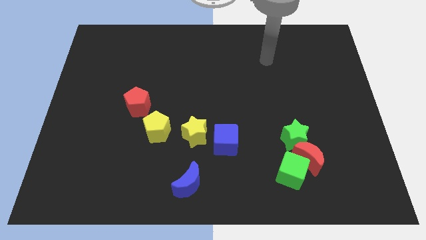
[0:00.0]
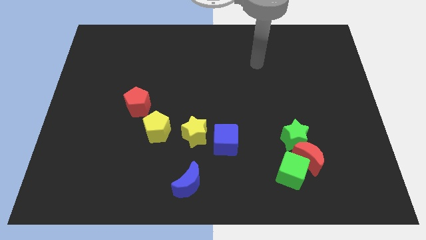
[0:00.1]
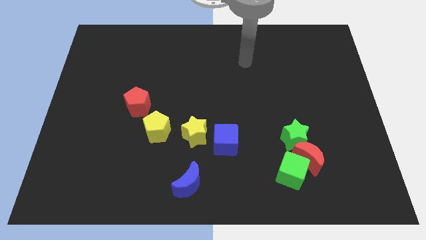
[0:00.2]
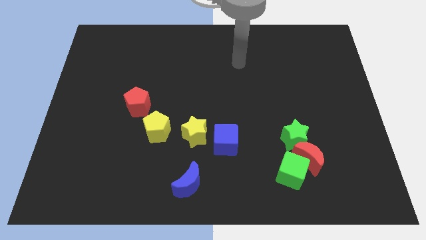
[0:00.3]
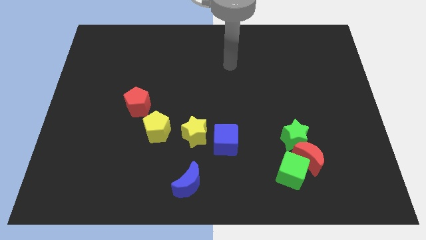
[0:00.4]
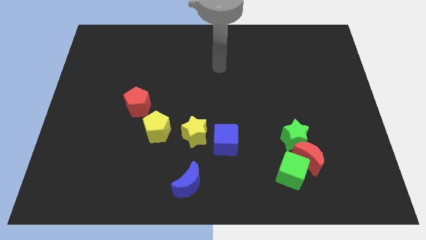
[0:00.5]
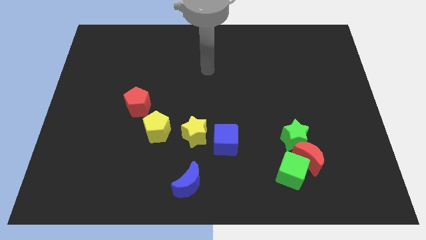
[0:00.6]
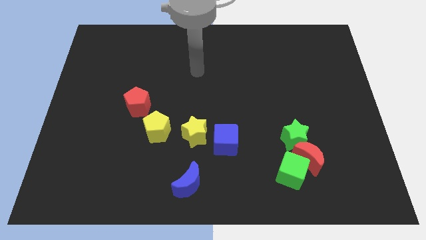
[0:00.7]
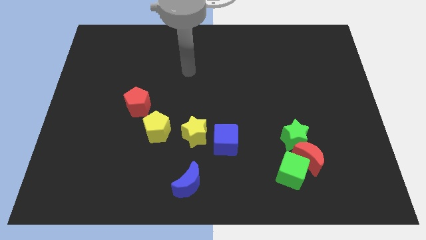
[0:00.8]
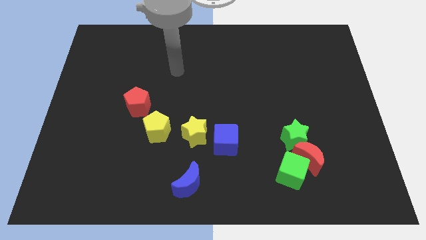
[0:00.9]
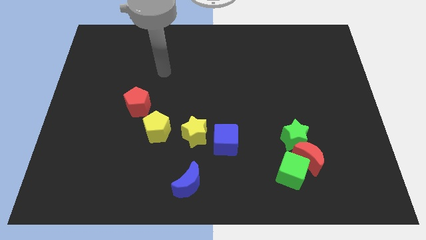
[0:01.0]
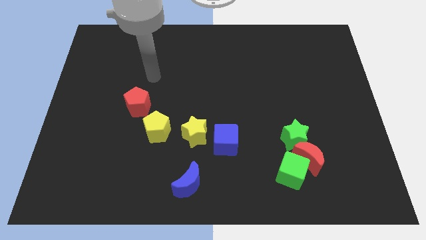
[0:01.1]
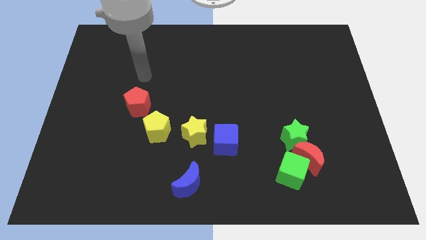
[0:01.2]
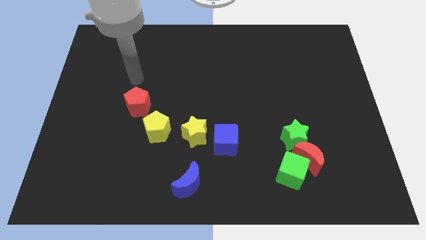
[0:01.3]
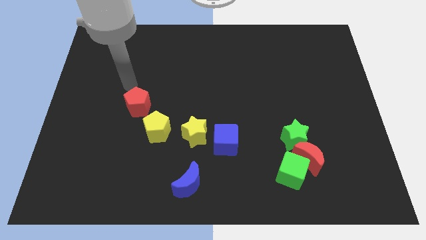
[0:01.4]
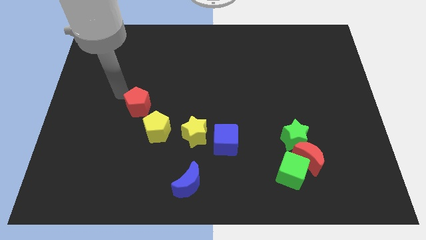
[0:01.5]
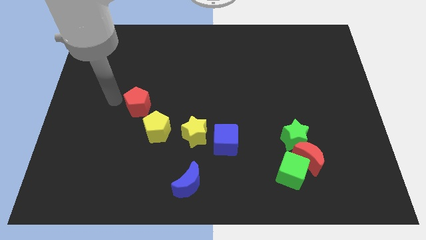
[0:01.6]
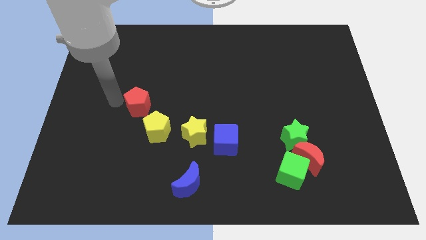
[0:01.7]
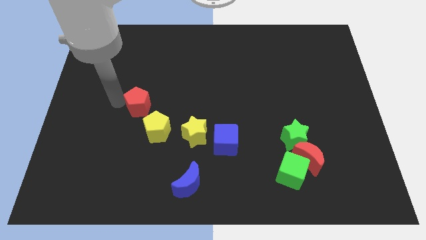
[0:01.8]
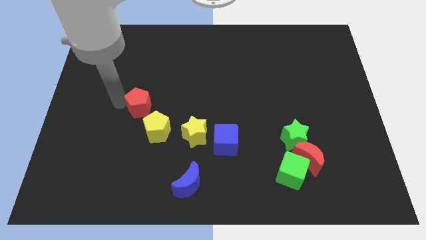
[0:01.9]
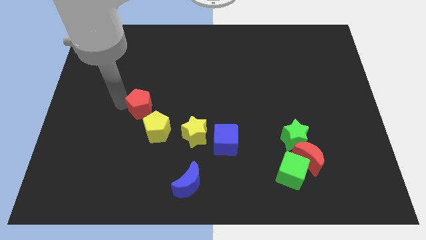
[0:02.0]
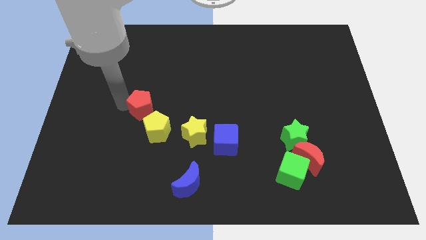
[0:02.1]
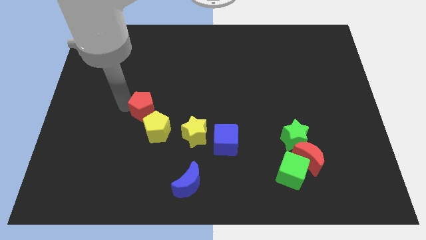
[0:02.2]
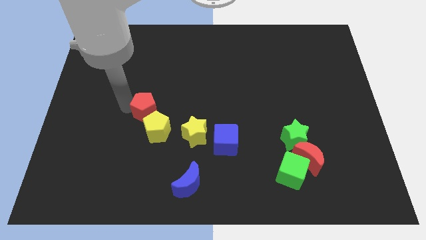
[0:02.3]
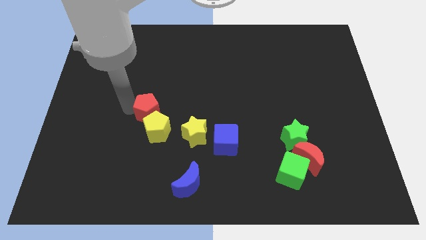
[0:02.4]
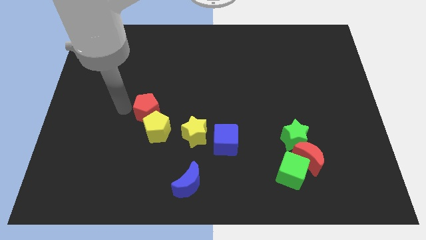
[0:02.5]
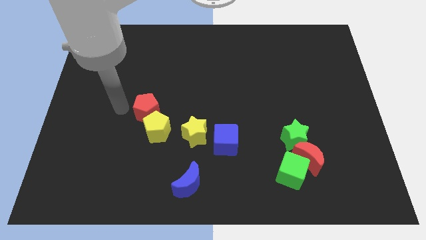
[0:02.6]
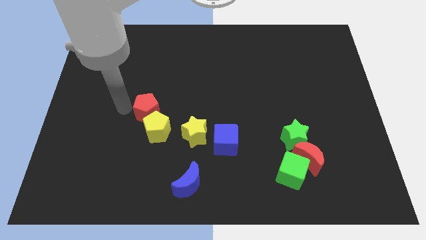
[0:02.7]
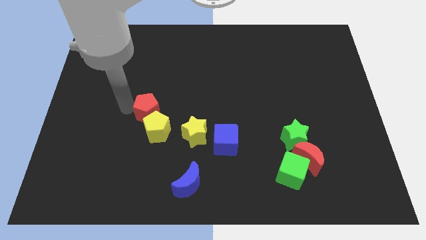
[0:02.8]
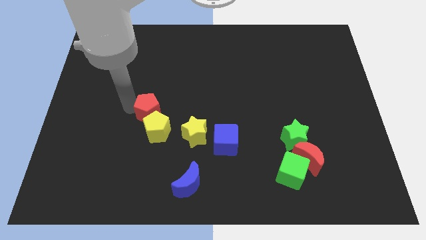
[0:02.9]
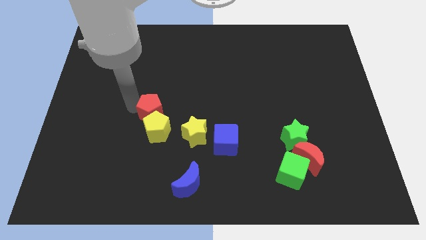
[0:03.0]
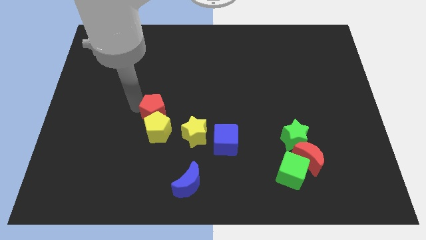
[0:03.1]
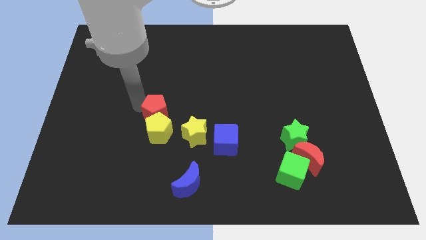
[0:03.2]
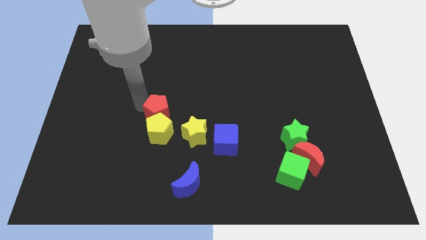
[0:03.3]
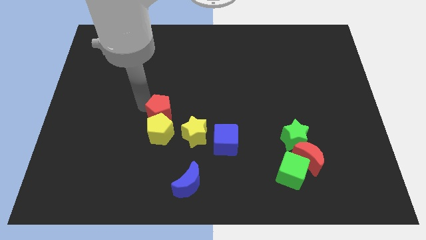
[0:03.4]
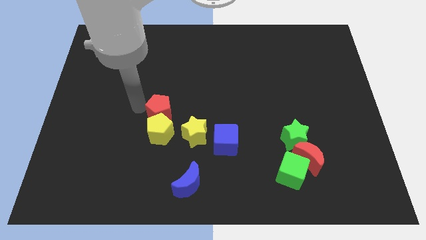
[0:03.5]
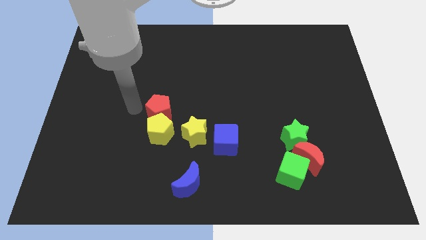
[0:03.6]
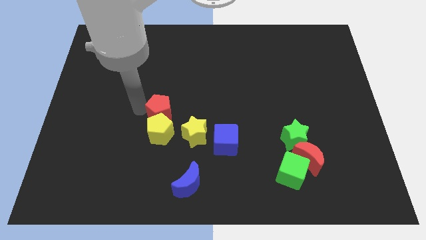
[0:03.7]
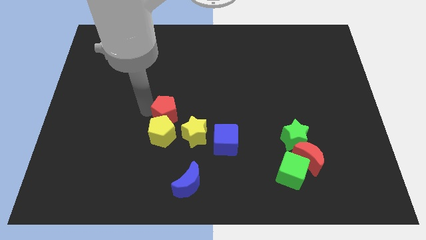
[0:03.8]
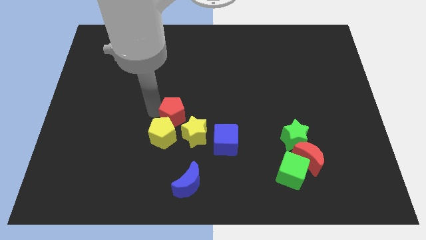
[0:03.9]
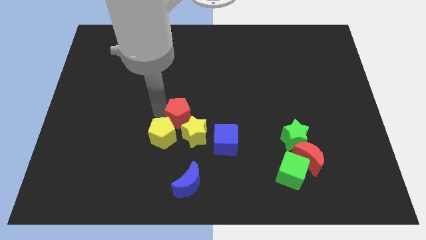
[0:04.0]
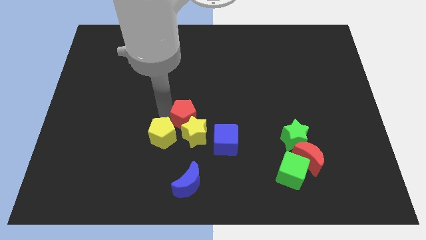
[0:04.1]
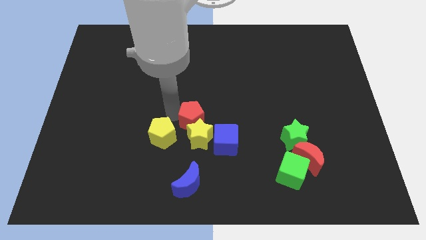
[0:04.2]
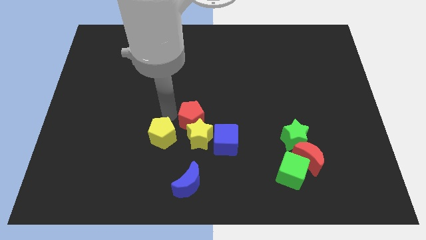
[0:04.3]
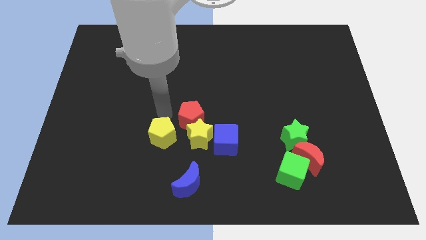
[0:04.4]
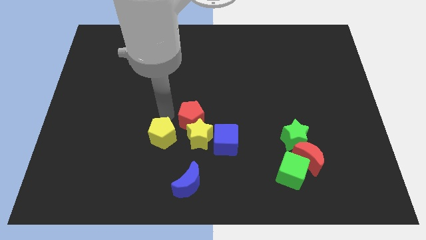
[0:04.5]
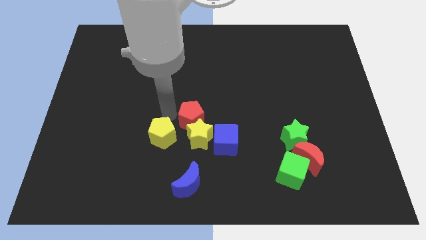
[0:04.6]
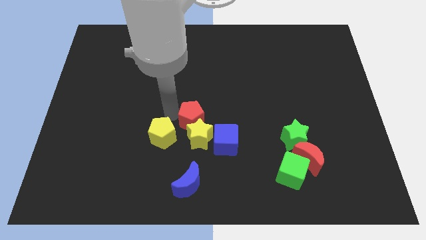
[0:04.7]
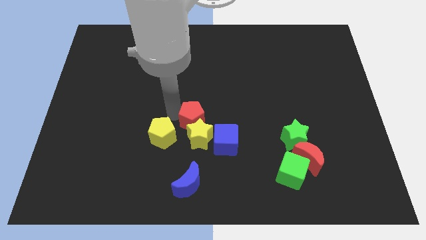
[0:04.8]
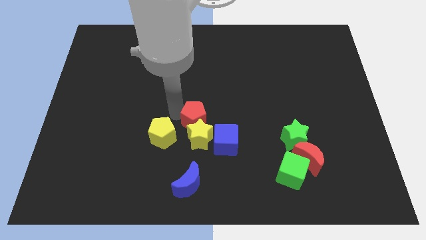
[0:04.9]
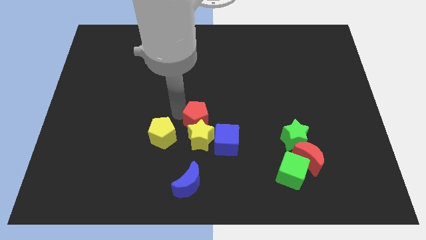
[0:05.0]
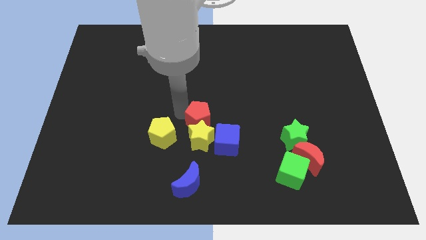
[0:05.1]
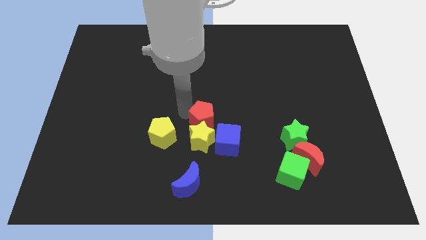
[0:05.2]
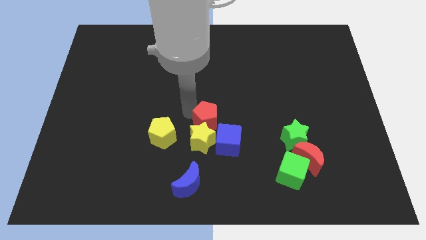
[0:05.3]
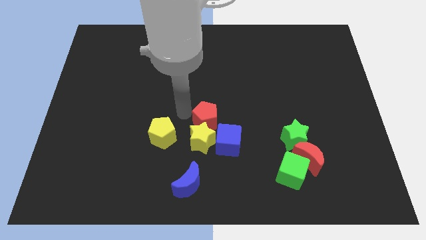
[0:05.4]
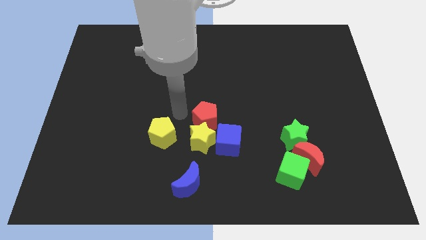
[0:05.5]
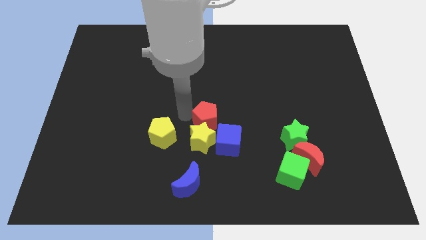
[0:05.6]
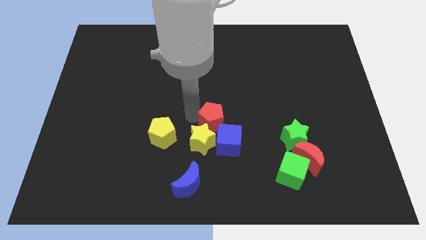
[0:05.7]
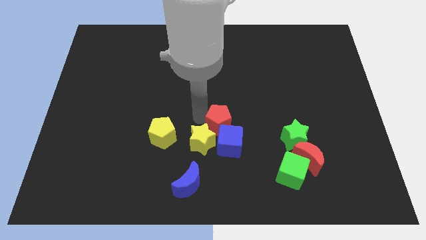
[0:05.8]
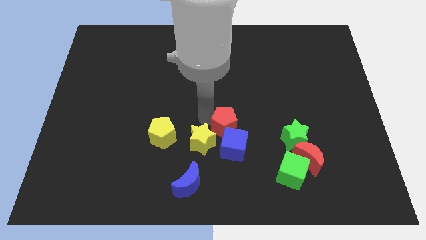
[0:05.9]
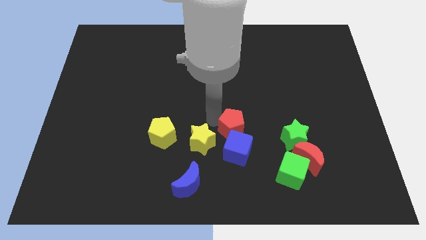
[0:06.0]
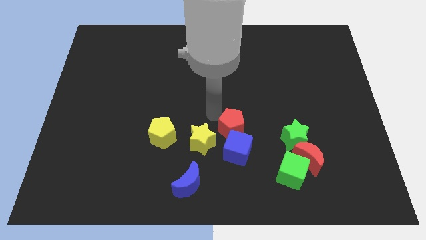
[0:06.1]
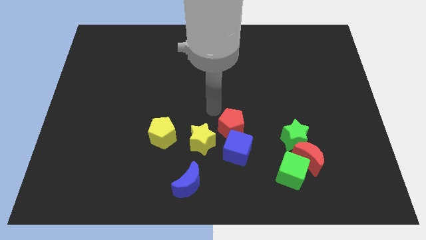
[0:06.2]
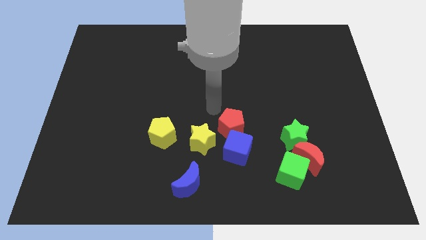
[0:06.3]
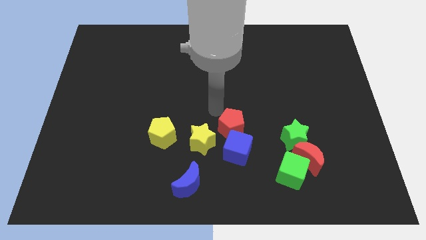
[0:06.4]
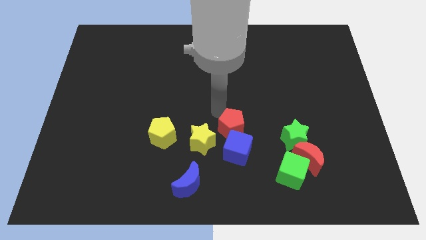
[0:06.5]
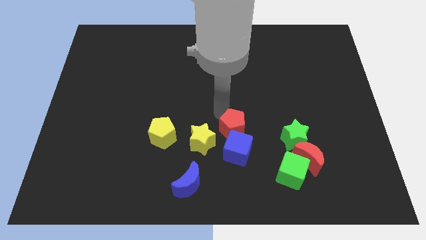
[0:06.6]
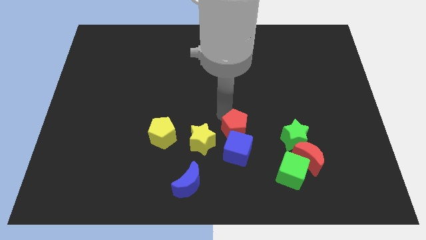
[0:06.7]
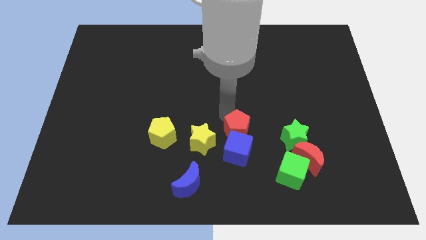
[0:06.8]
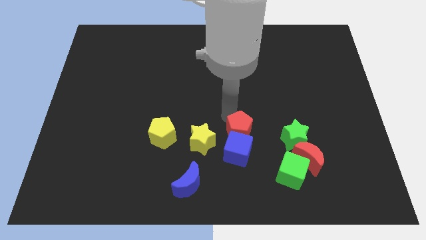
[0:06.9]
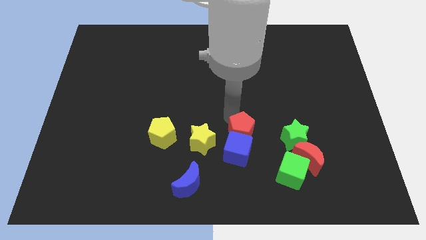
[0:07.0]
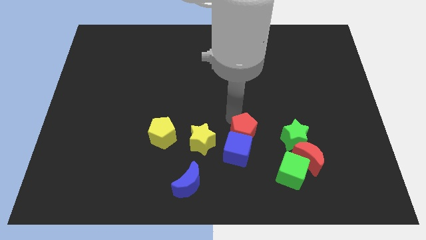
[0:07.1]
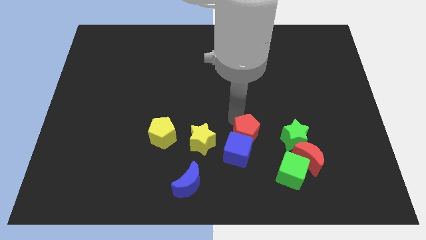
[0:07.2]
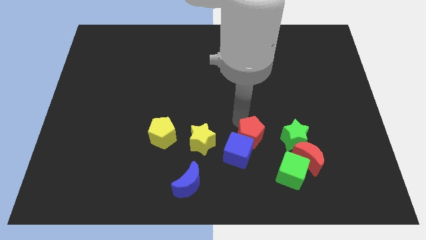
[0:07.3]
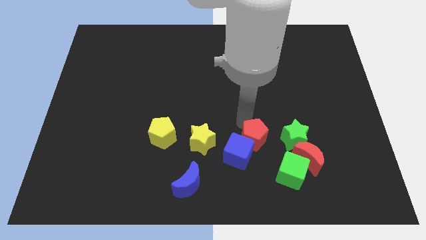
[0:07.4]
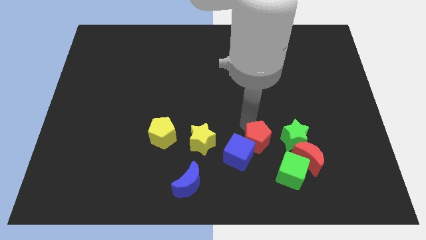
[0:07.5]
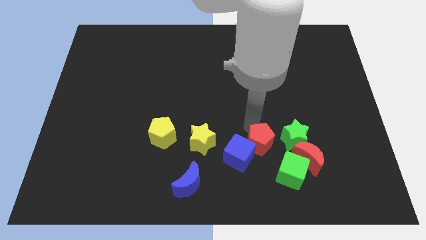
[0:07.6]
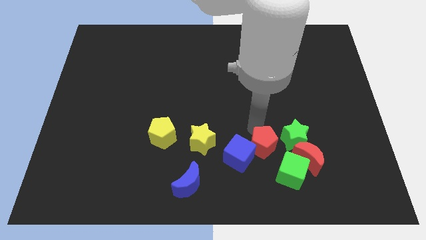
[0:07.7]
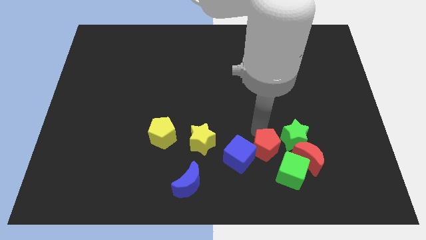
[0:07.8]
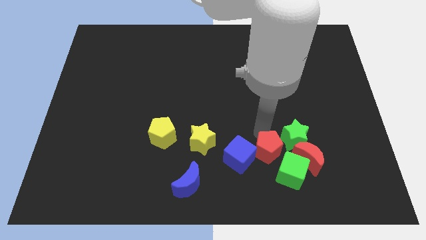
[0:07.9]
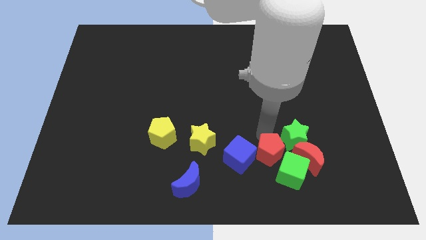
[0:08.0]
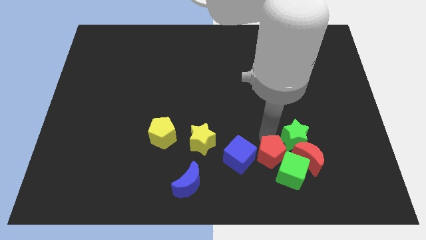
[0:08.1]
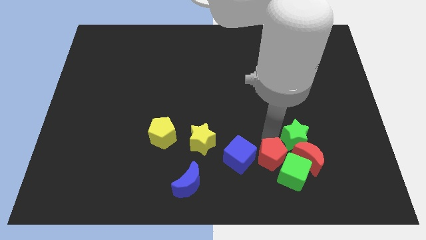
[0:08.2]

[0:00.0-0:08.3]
slide the red pentagon to the bottom right of the blue cube
